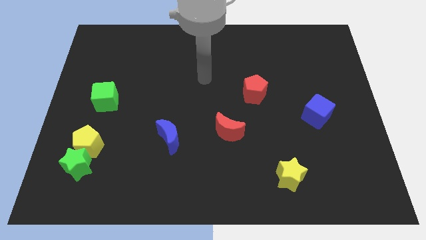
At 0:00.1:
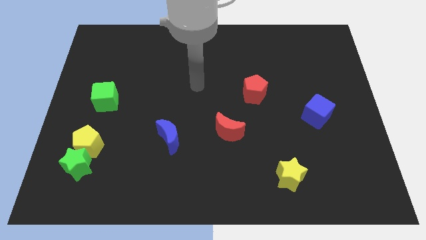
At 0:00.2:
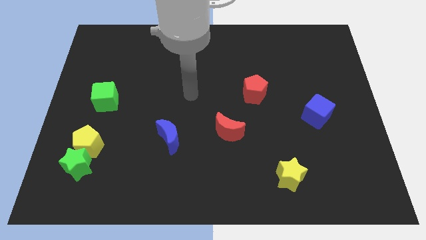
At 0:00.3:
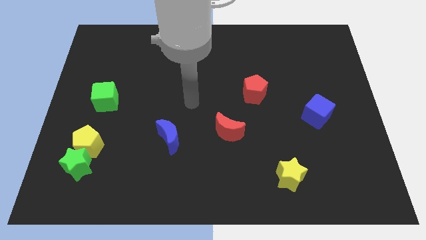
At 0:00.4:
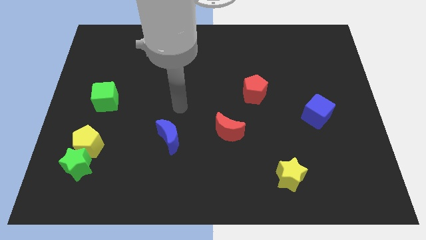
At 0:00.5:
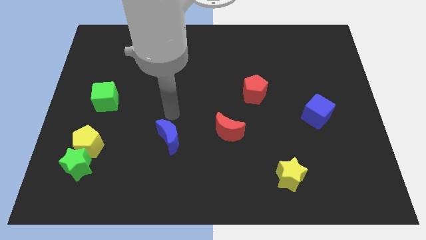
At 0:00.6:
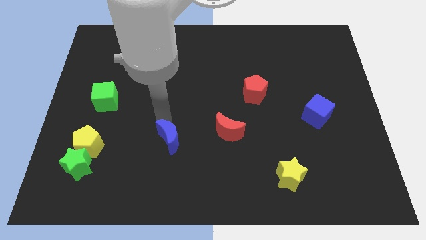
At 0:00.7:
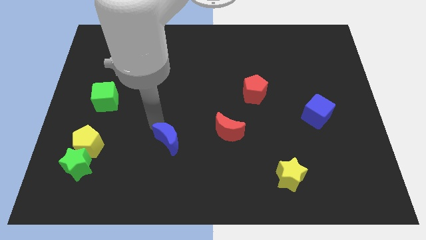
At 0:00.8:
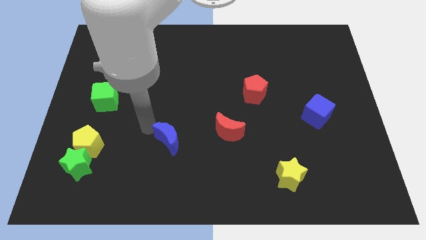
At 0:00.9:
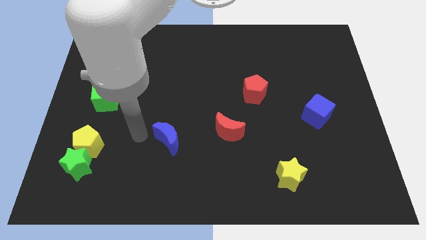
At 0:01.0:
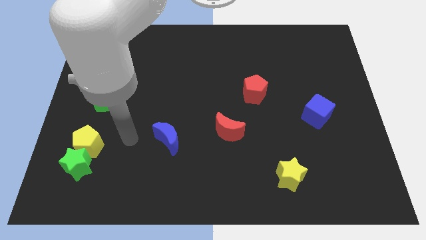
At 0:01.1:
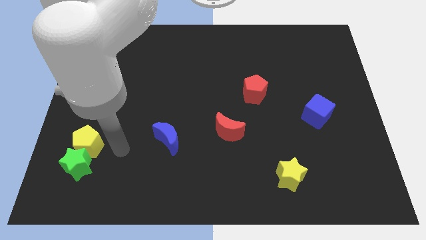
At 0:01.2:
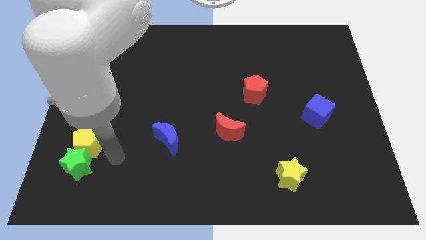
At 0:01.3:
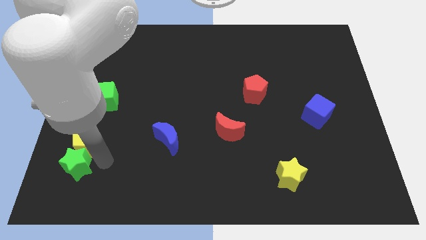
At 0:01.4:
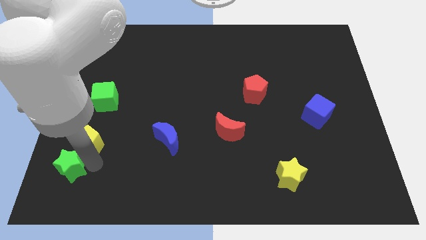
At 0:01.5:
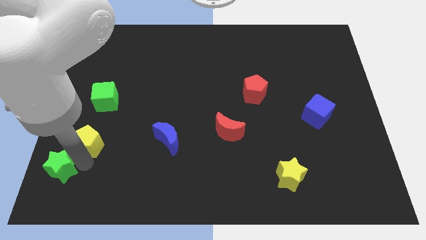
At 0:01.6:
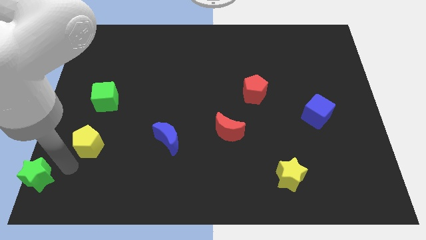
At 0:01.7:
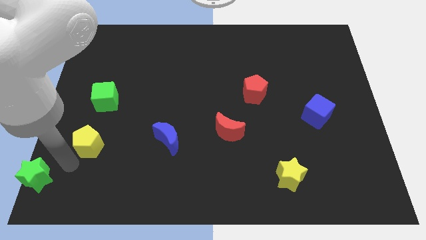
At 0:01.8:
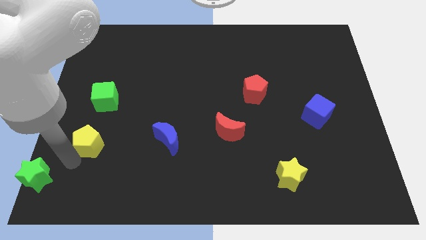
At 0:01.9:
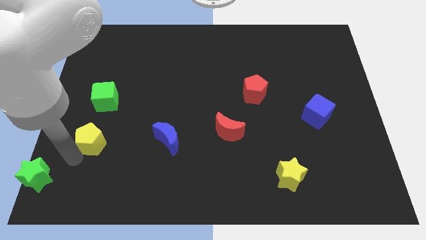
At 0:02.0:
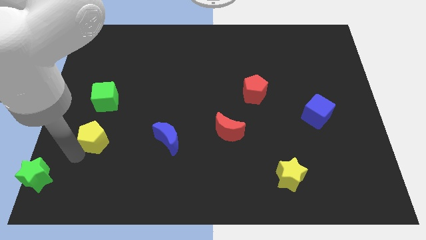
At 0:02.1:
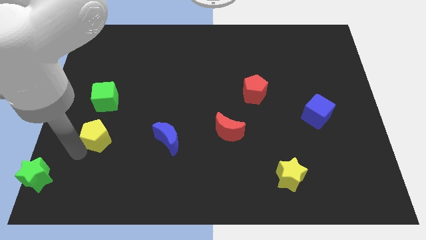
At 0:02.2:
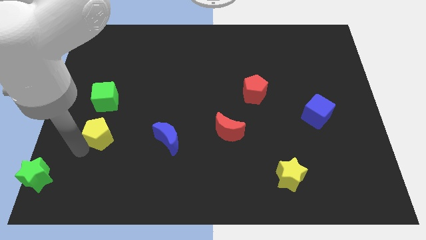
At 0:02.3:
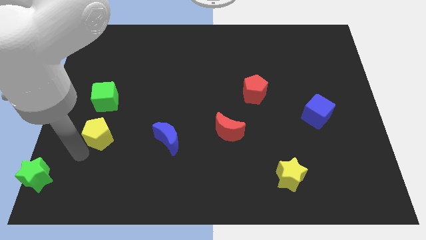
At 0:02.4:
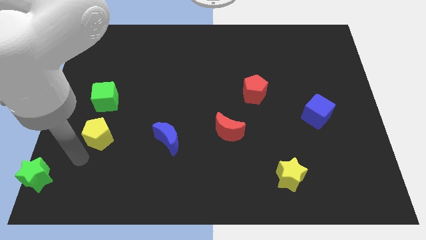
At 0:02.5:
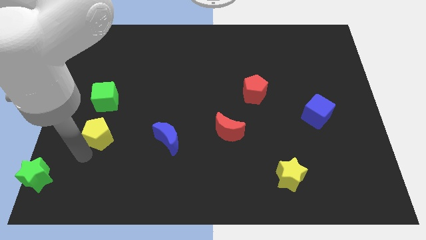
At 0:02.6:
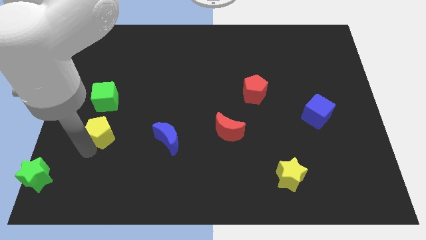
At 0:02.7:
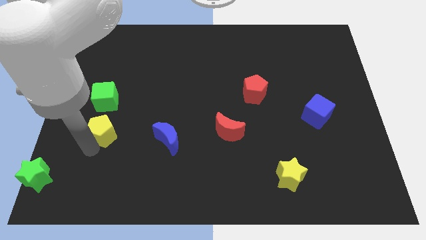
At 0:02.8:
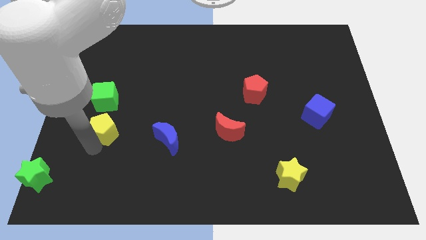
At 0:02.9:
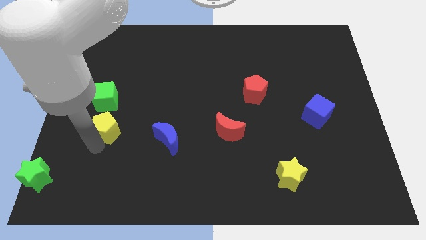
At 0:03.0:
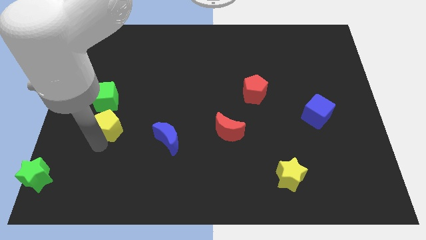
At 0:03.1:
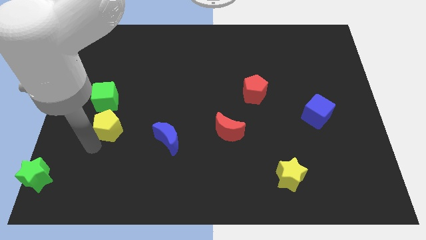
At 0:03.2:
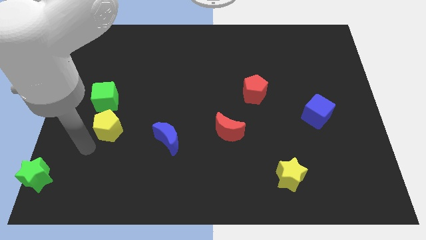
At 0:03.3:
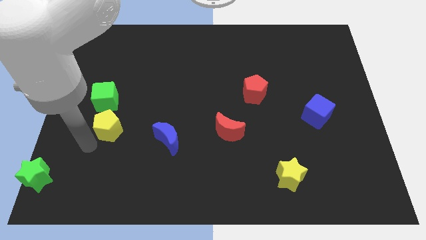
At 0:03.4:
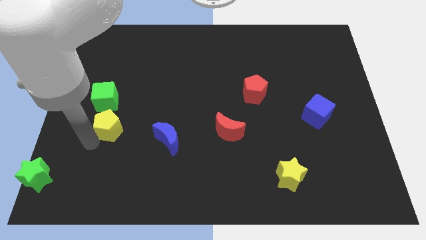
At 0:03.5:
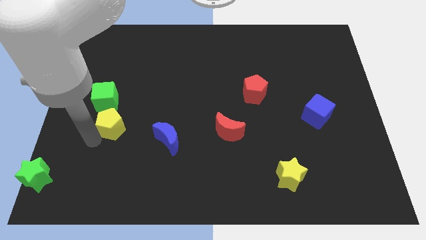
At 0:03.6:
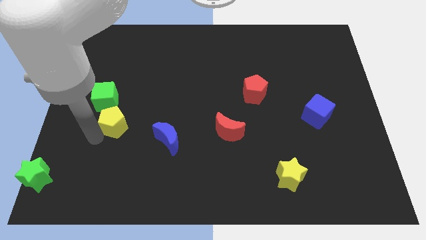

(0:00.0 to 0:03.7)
slide the yellow pentagon diagonally up and to the right slightly

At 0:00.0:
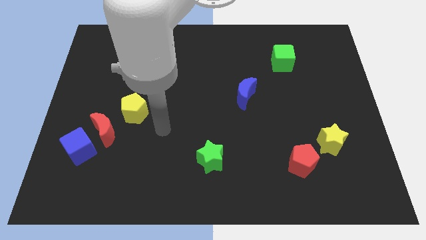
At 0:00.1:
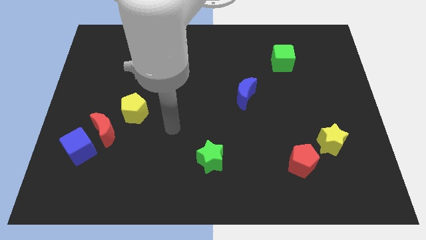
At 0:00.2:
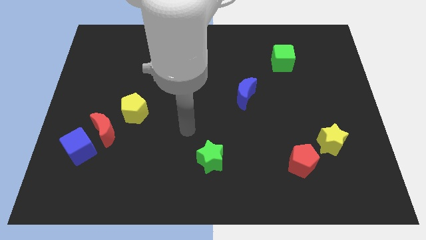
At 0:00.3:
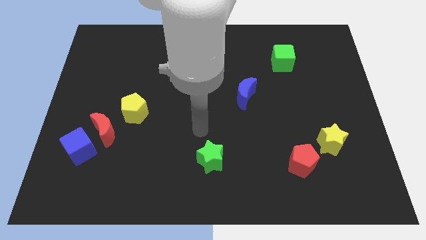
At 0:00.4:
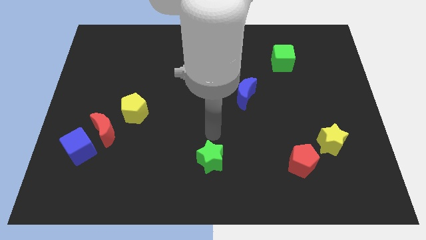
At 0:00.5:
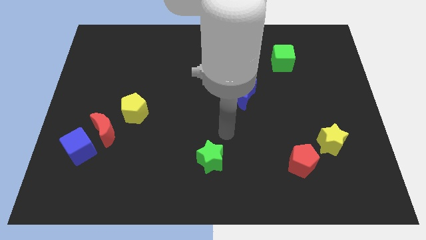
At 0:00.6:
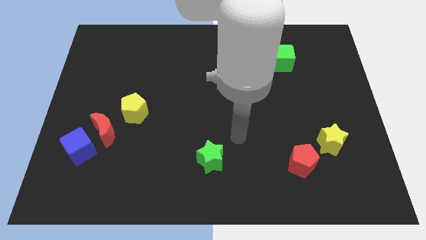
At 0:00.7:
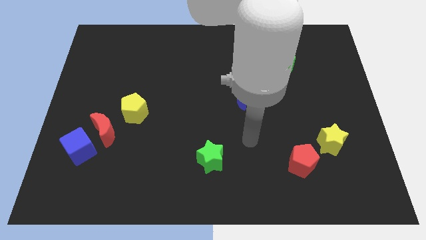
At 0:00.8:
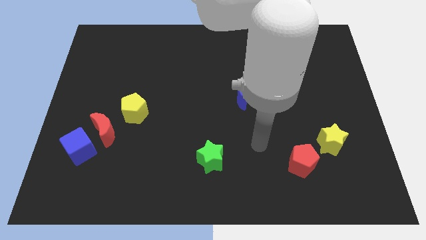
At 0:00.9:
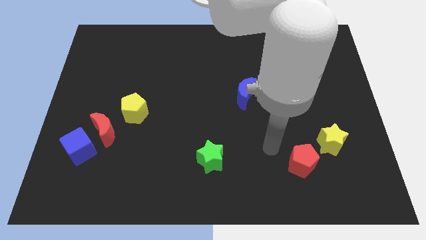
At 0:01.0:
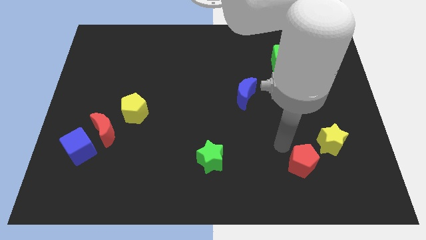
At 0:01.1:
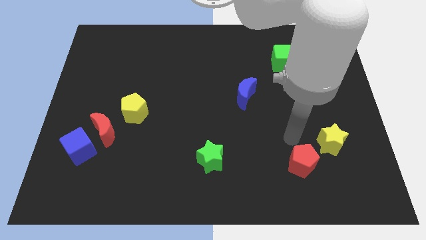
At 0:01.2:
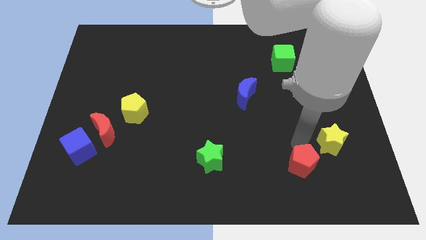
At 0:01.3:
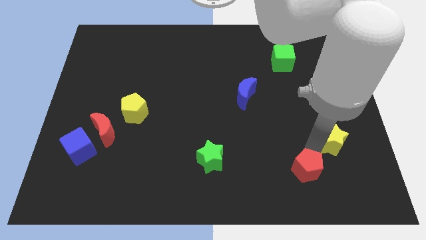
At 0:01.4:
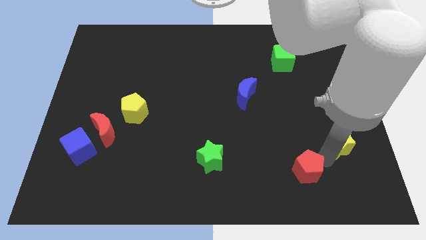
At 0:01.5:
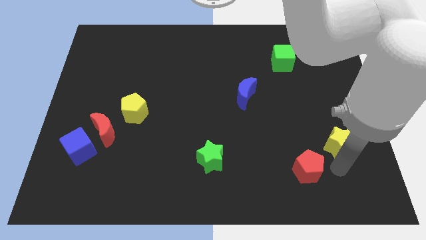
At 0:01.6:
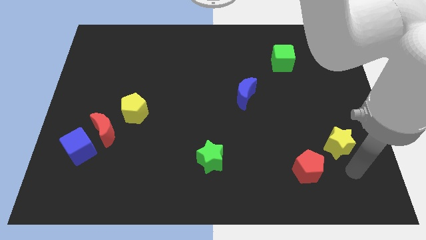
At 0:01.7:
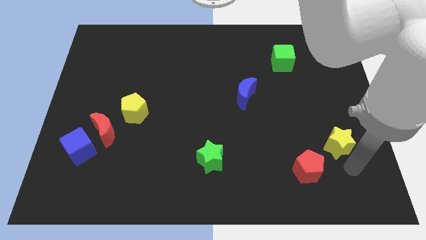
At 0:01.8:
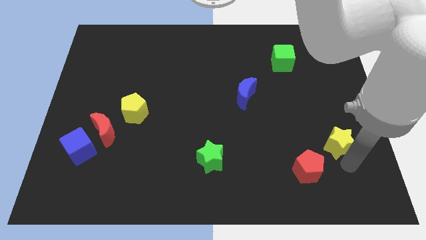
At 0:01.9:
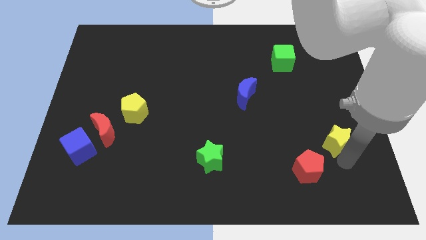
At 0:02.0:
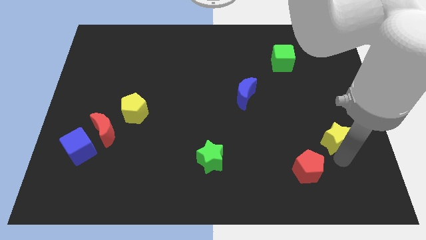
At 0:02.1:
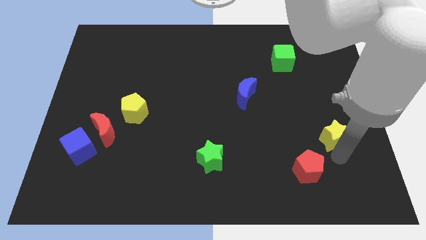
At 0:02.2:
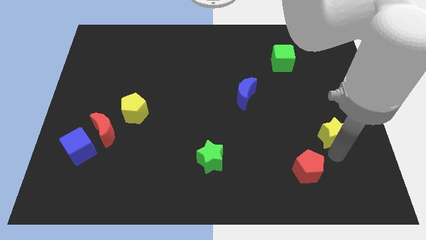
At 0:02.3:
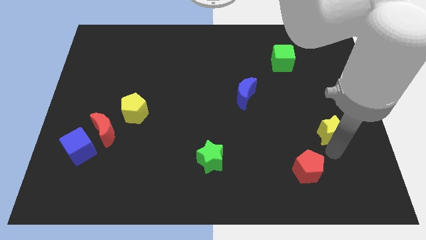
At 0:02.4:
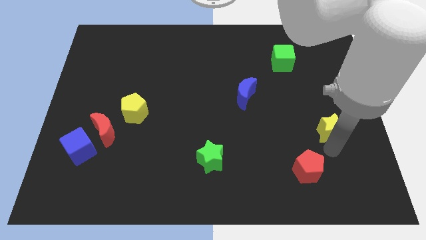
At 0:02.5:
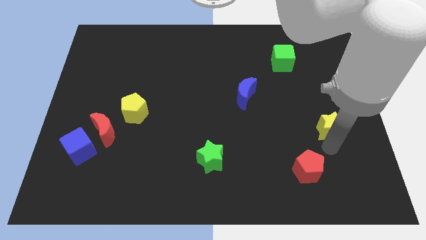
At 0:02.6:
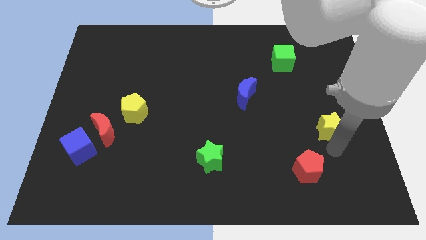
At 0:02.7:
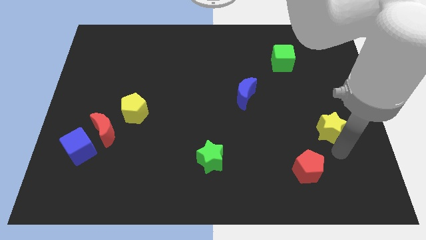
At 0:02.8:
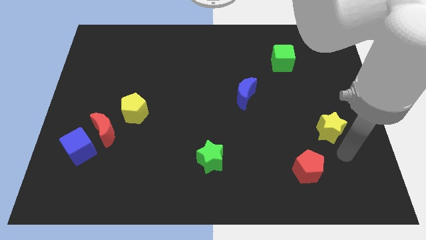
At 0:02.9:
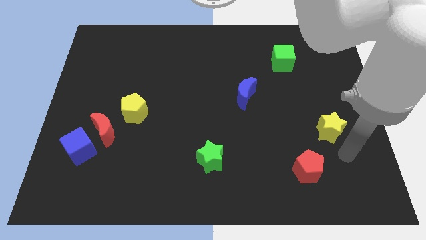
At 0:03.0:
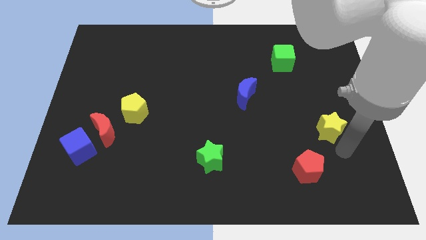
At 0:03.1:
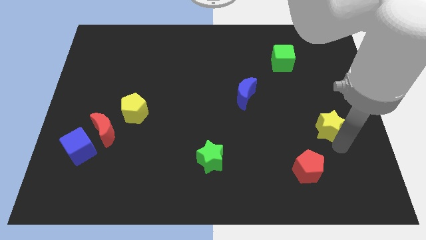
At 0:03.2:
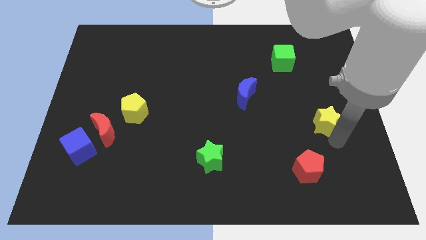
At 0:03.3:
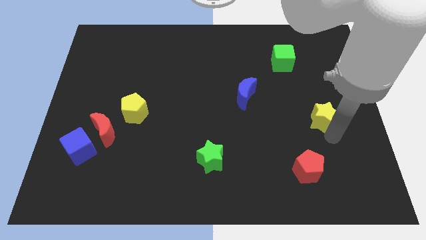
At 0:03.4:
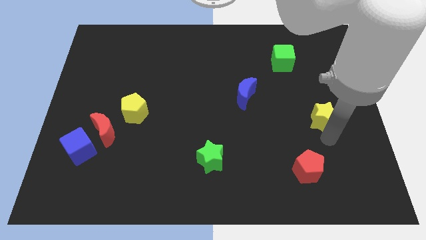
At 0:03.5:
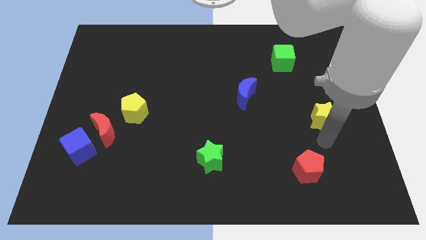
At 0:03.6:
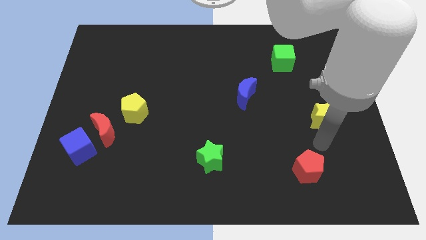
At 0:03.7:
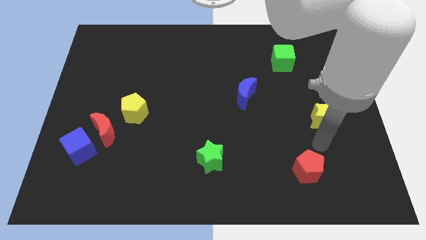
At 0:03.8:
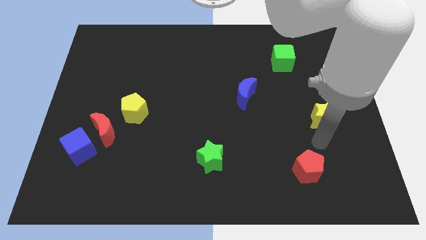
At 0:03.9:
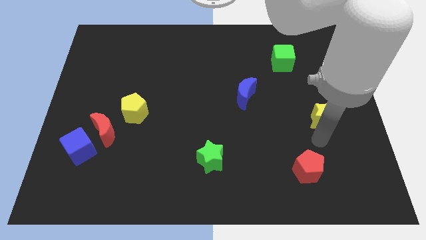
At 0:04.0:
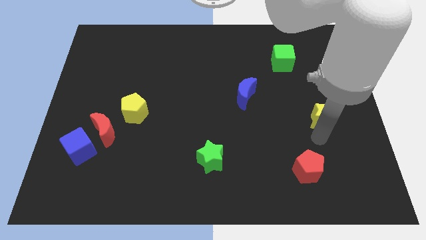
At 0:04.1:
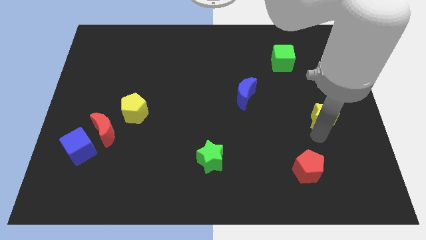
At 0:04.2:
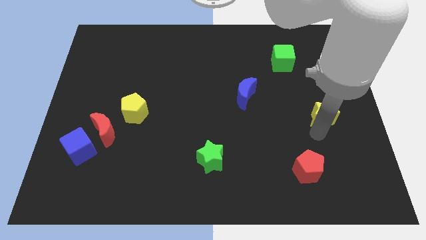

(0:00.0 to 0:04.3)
slide the yellow star up slightly

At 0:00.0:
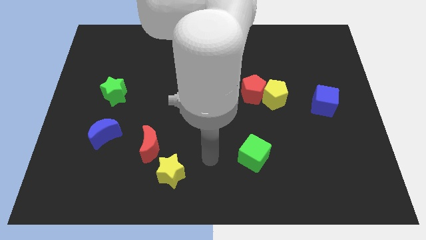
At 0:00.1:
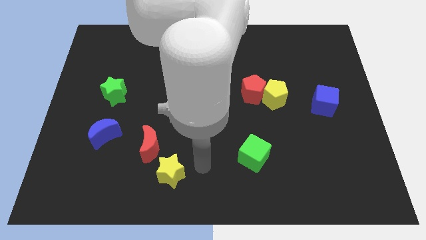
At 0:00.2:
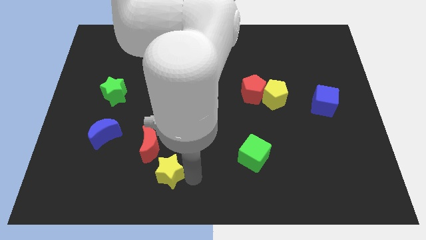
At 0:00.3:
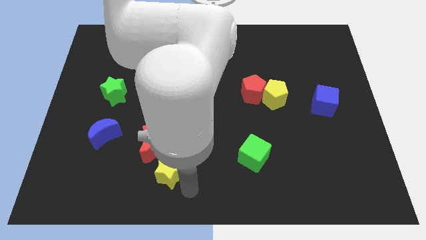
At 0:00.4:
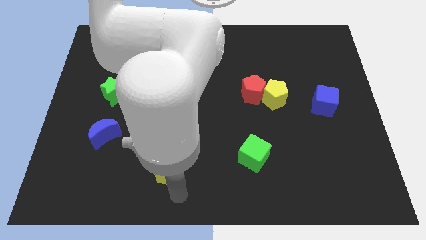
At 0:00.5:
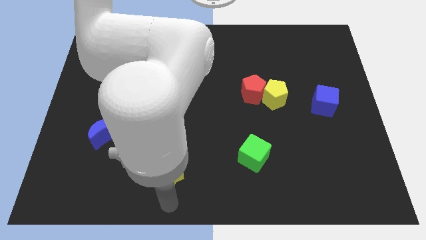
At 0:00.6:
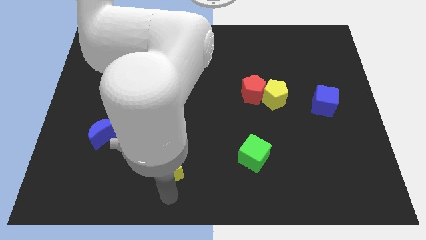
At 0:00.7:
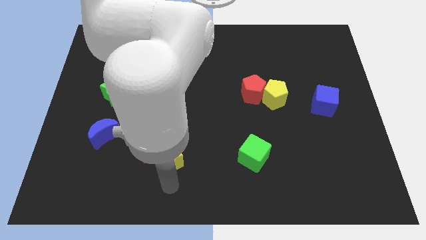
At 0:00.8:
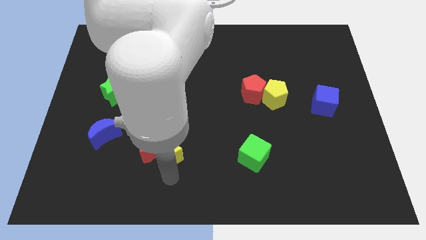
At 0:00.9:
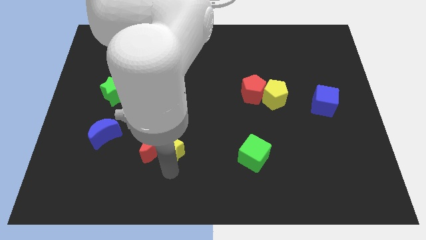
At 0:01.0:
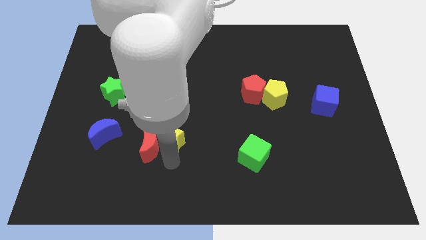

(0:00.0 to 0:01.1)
slide the yellow star slightly up
